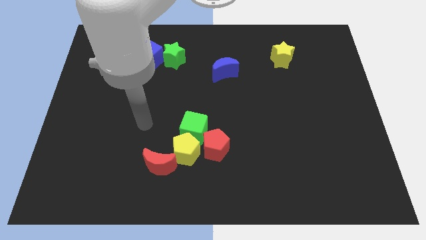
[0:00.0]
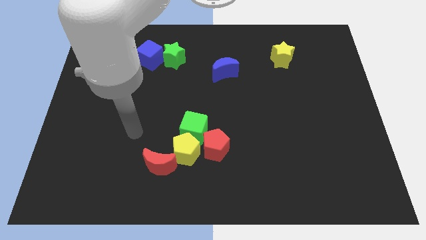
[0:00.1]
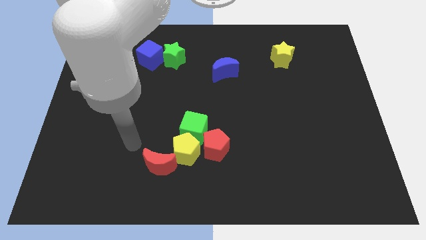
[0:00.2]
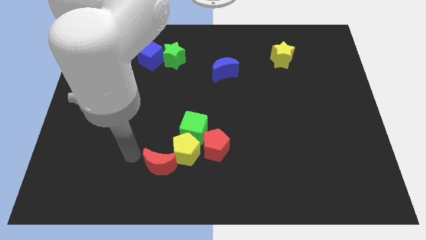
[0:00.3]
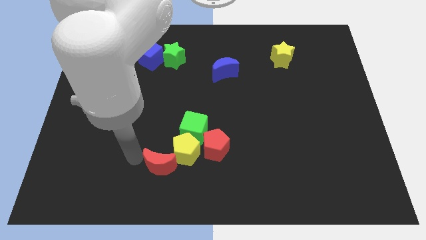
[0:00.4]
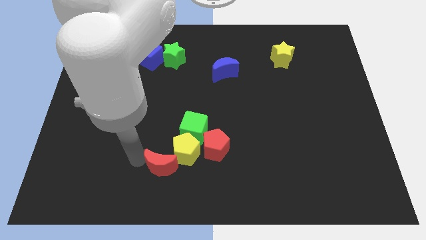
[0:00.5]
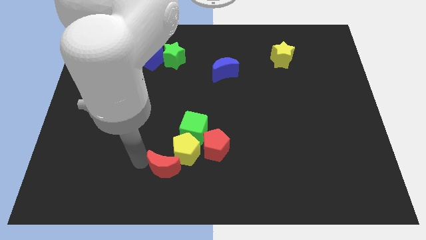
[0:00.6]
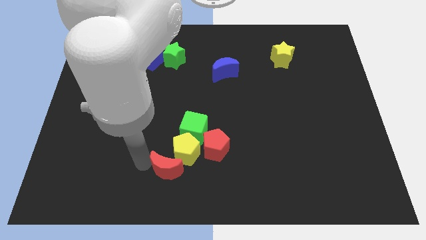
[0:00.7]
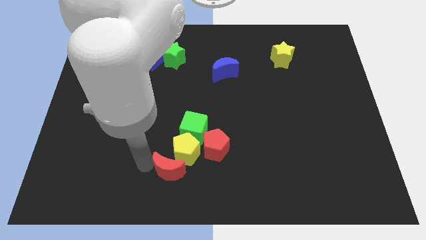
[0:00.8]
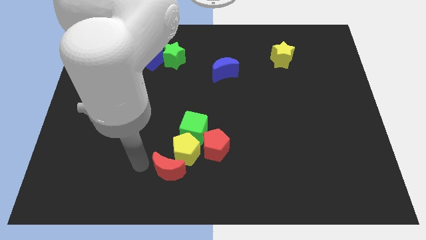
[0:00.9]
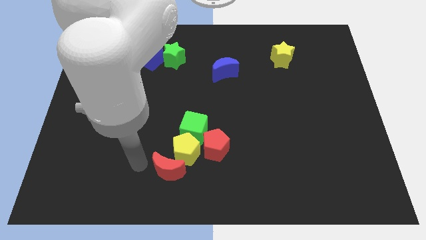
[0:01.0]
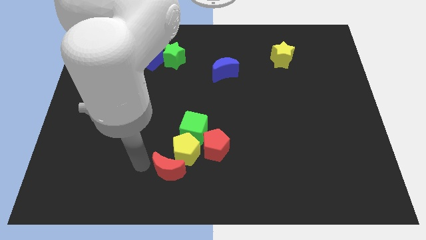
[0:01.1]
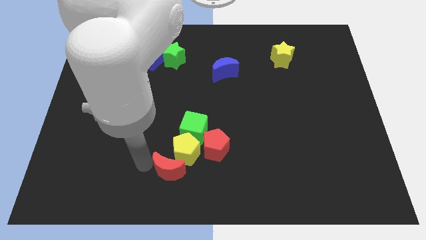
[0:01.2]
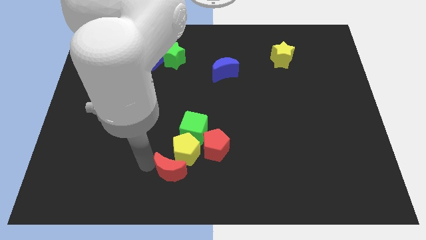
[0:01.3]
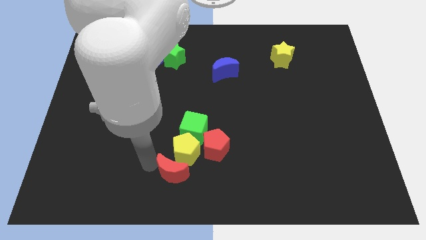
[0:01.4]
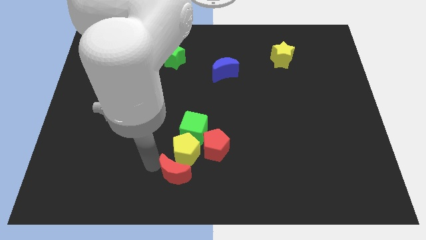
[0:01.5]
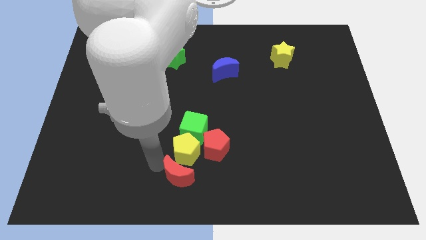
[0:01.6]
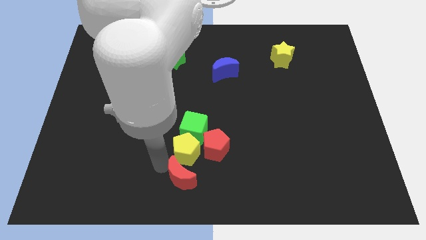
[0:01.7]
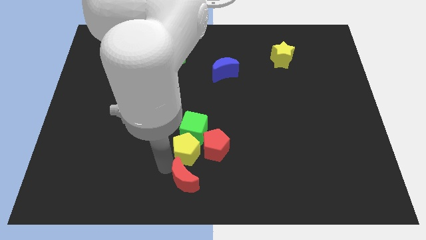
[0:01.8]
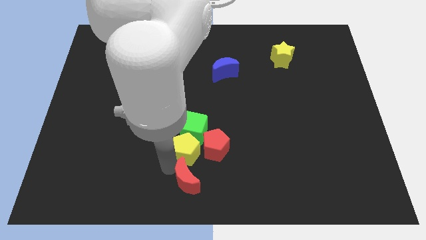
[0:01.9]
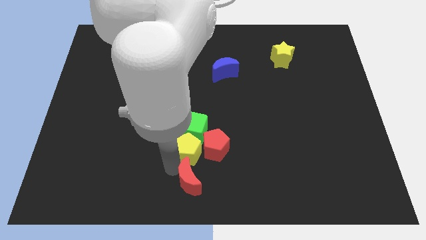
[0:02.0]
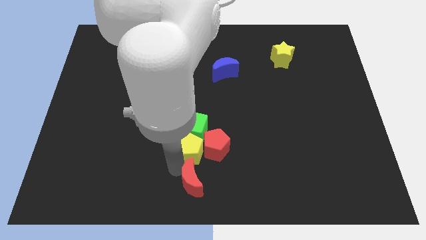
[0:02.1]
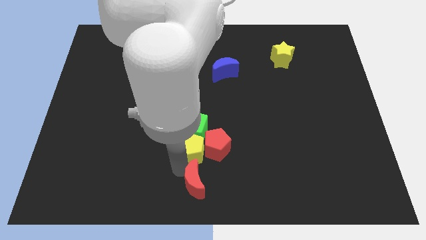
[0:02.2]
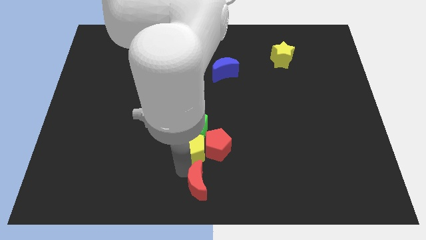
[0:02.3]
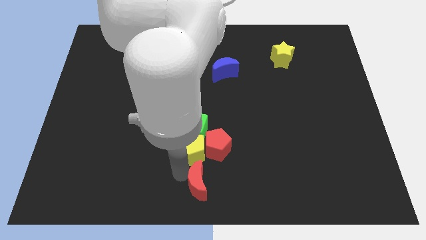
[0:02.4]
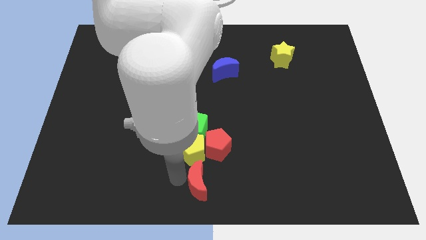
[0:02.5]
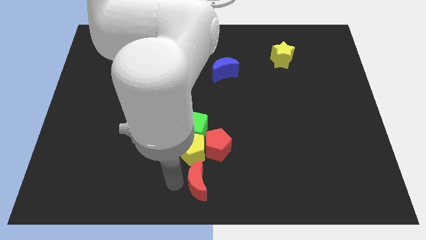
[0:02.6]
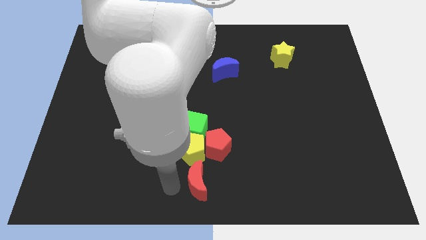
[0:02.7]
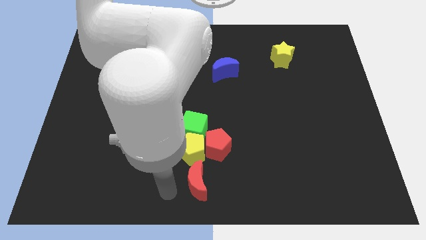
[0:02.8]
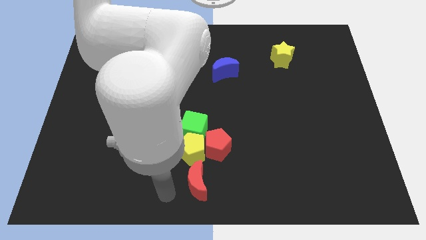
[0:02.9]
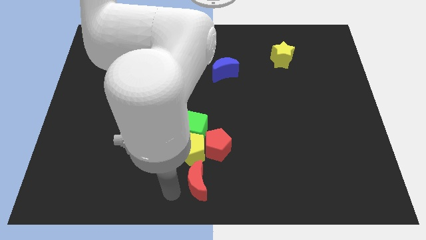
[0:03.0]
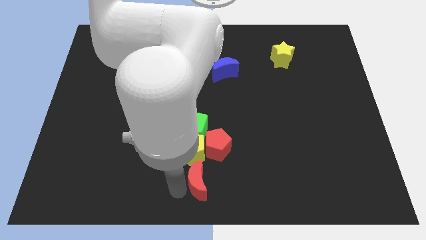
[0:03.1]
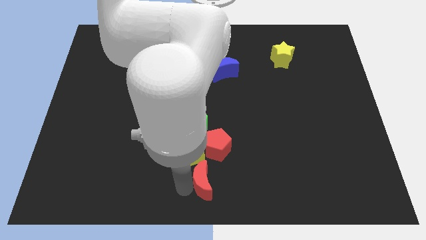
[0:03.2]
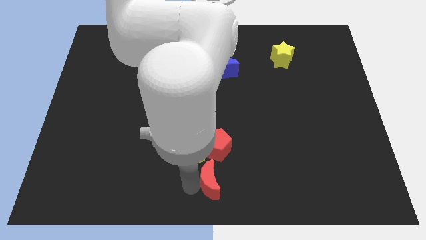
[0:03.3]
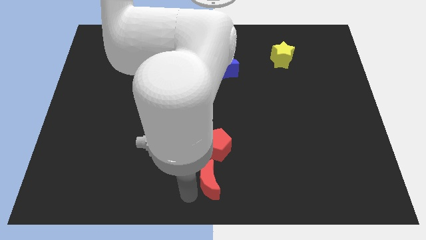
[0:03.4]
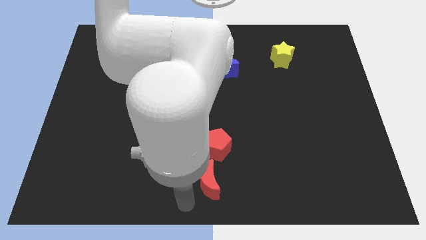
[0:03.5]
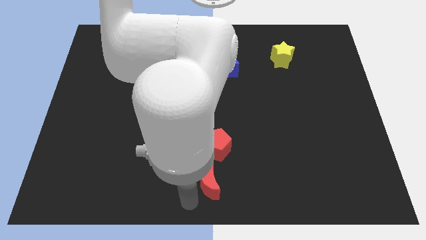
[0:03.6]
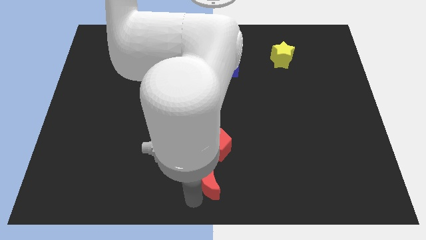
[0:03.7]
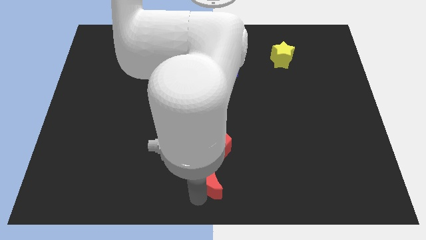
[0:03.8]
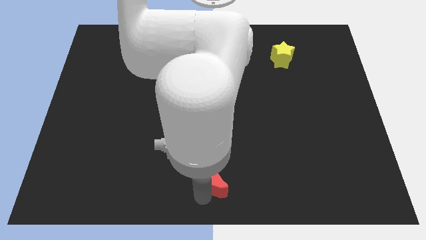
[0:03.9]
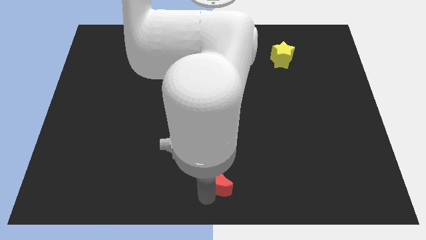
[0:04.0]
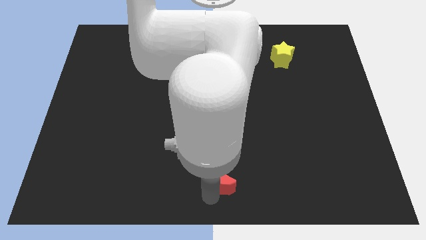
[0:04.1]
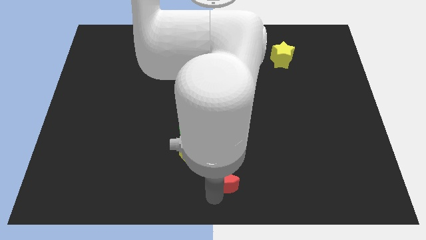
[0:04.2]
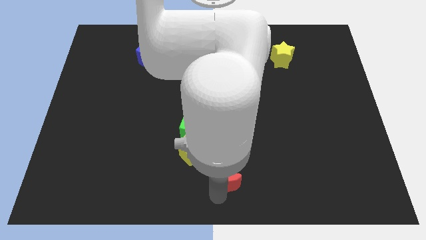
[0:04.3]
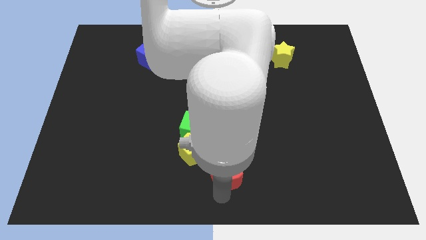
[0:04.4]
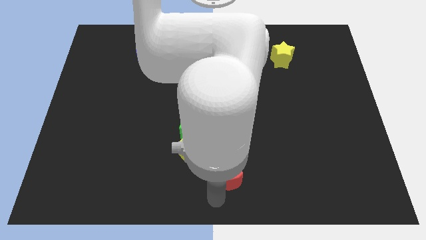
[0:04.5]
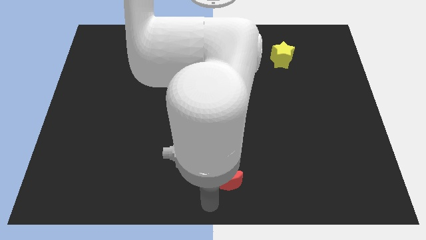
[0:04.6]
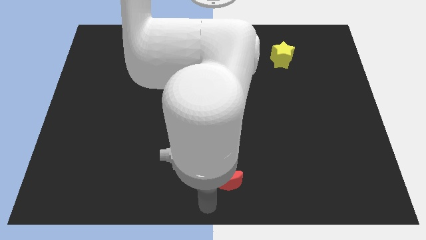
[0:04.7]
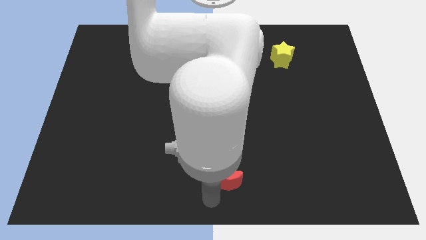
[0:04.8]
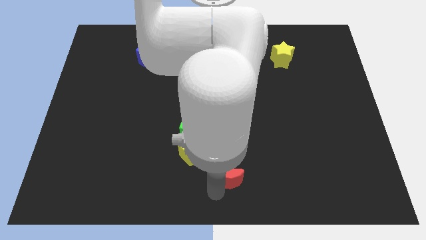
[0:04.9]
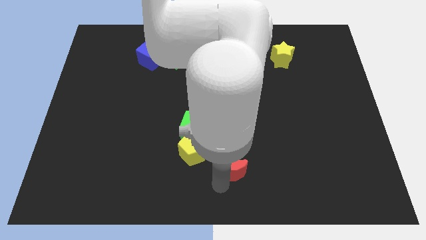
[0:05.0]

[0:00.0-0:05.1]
put the red moon right of the yellow pentagon

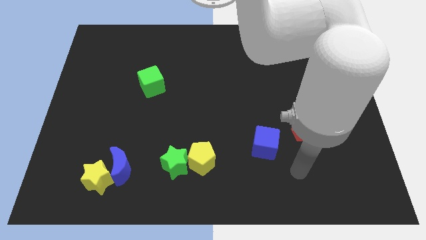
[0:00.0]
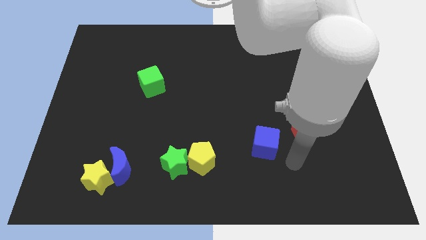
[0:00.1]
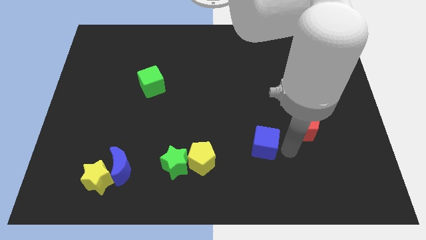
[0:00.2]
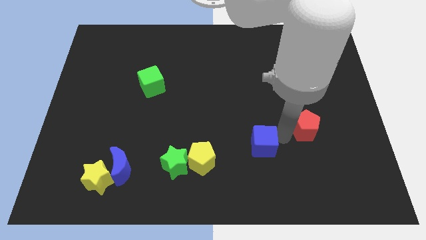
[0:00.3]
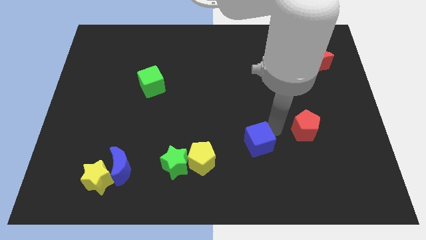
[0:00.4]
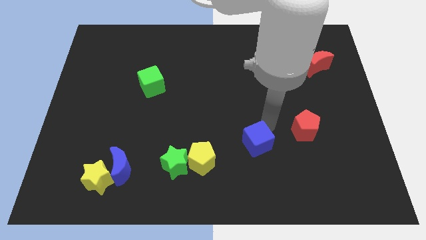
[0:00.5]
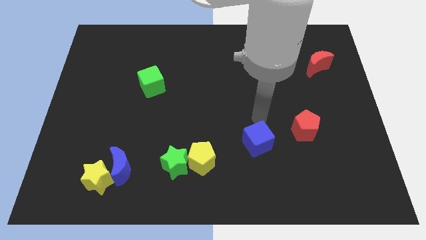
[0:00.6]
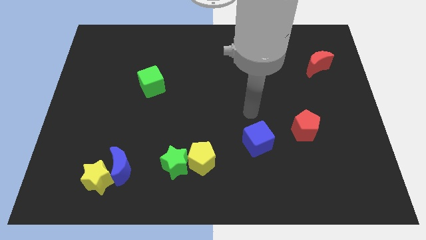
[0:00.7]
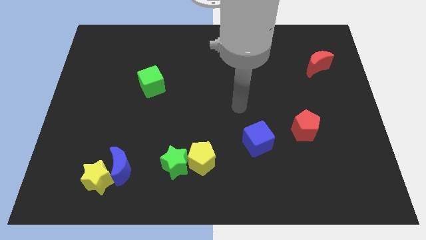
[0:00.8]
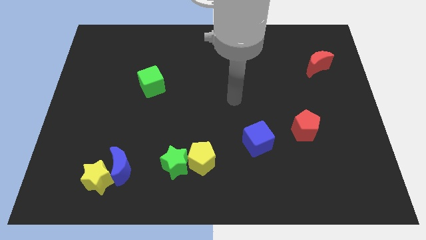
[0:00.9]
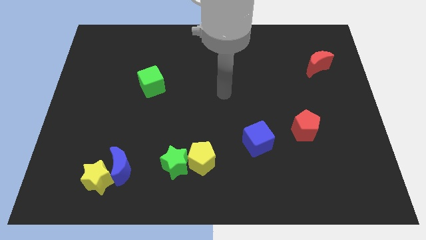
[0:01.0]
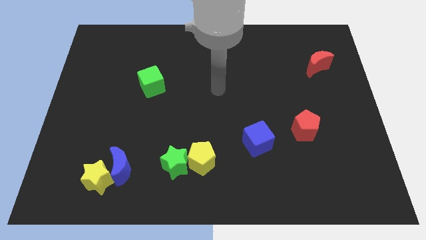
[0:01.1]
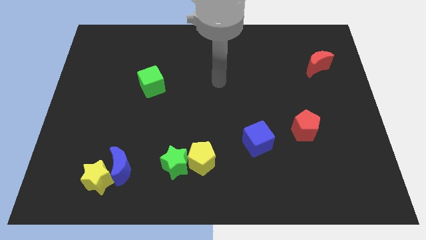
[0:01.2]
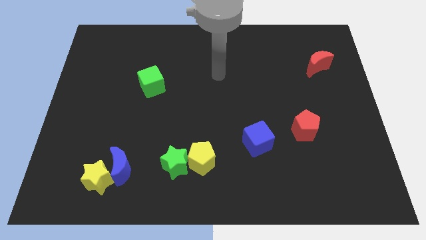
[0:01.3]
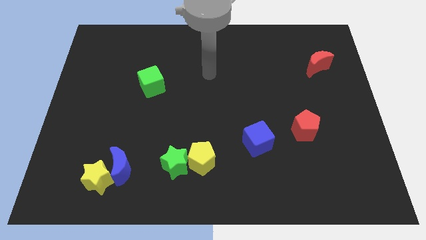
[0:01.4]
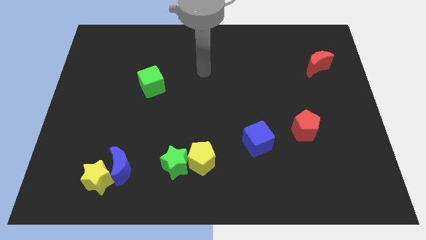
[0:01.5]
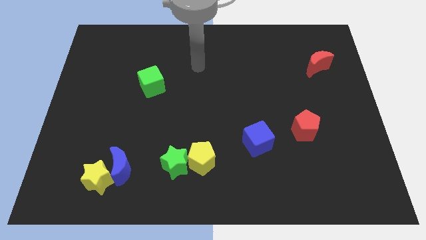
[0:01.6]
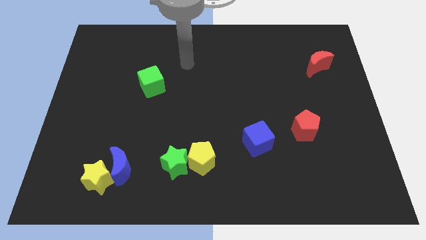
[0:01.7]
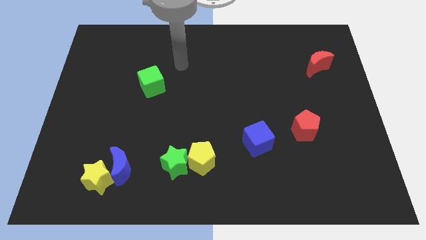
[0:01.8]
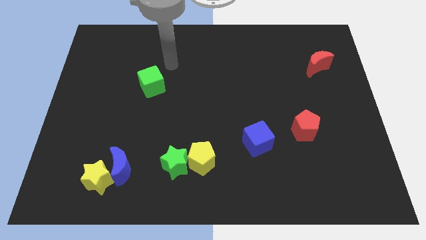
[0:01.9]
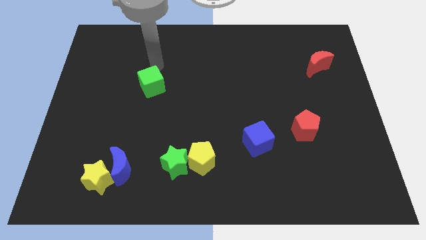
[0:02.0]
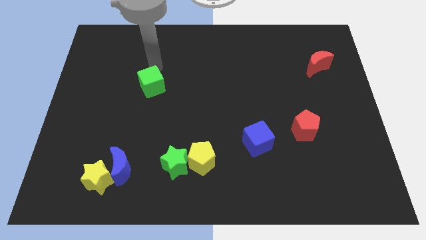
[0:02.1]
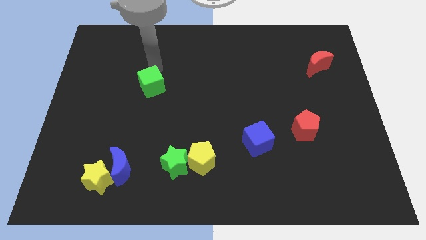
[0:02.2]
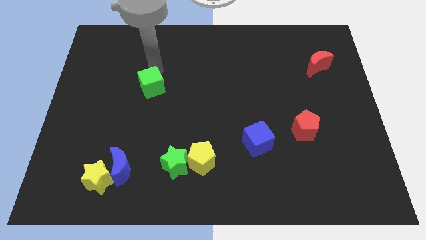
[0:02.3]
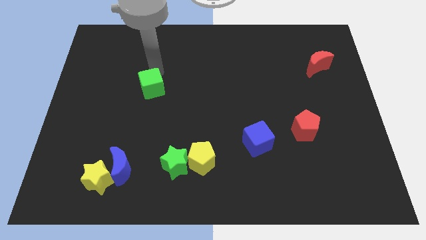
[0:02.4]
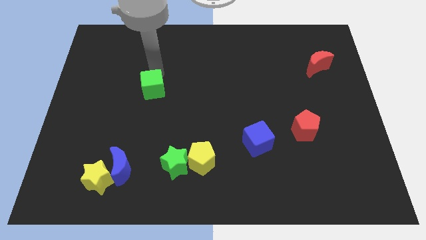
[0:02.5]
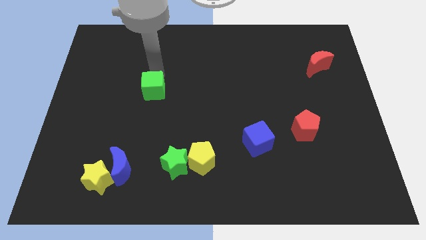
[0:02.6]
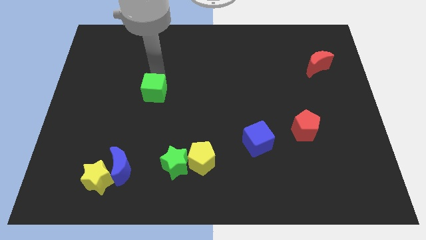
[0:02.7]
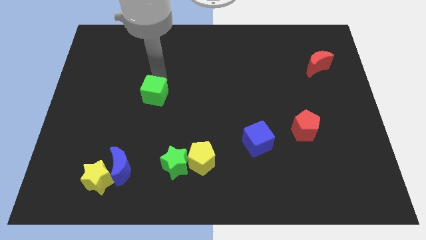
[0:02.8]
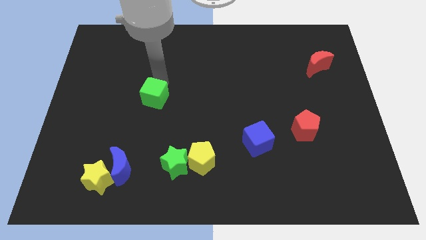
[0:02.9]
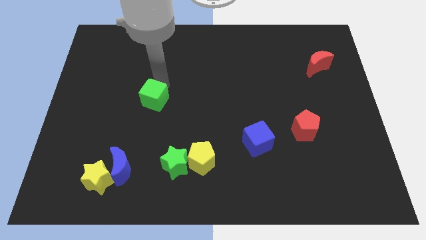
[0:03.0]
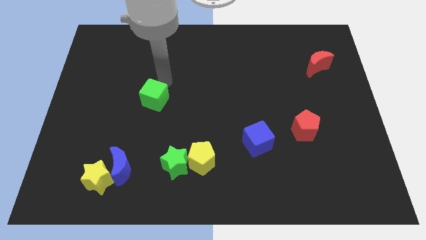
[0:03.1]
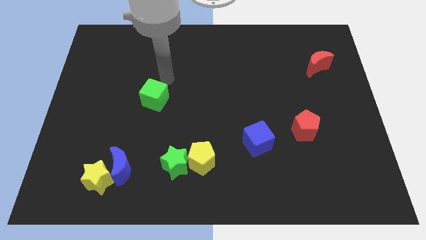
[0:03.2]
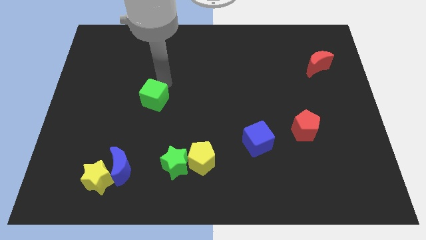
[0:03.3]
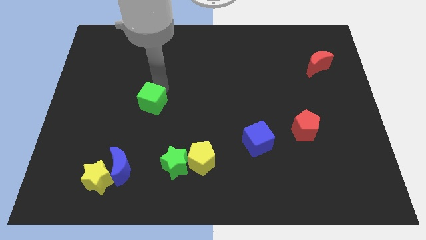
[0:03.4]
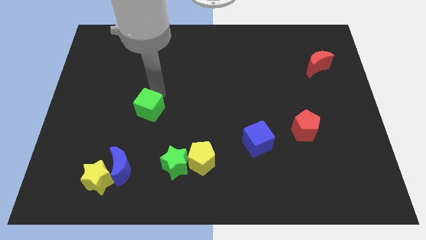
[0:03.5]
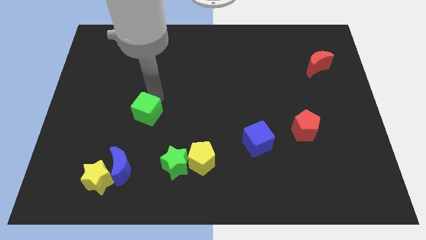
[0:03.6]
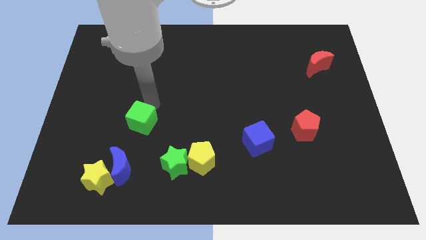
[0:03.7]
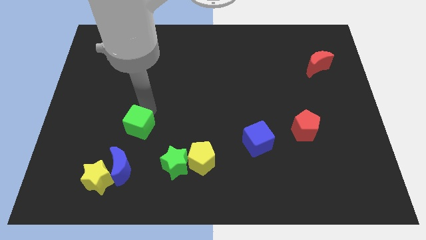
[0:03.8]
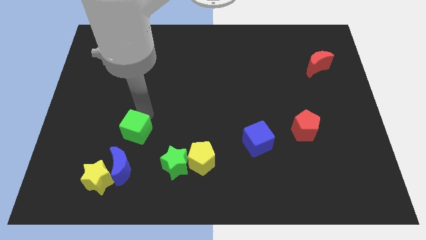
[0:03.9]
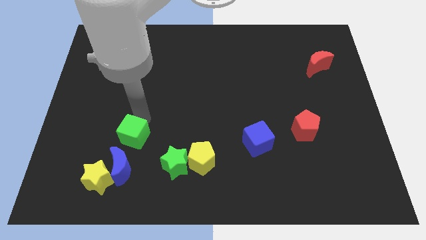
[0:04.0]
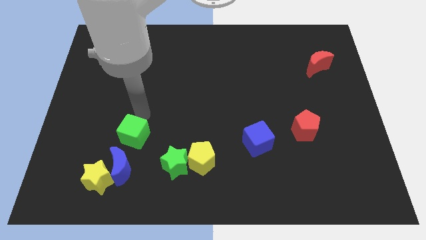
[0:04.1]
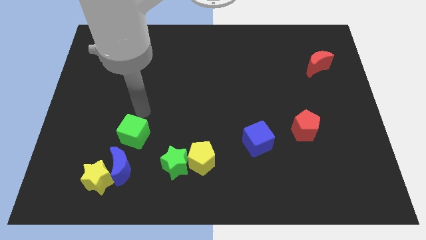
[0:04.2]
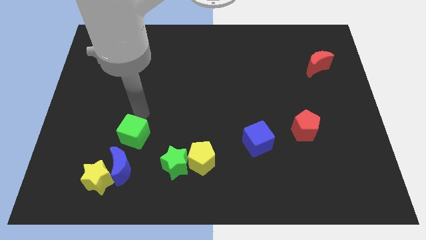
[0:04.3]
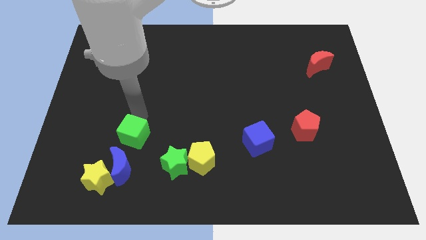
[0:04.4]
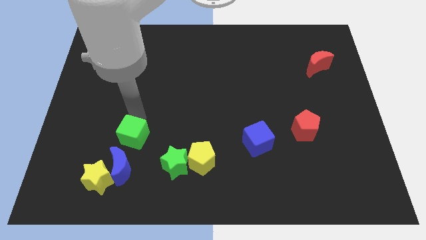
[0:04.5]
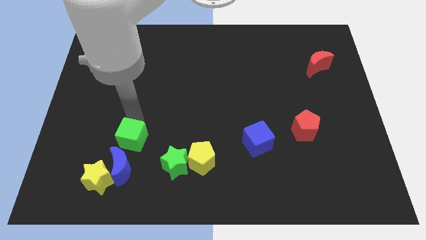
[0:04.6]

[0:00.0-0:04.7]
move the green cube to the top right of the yellow star
